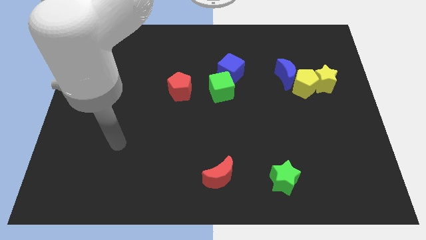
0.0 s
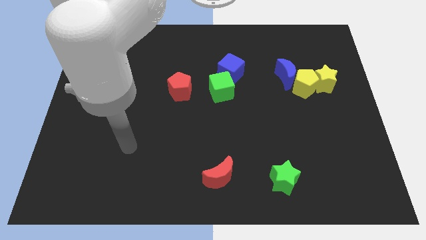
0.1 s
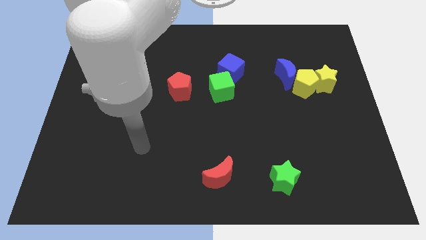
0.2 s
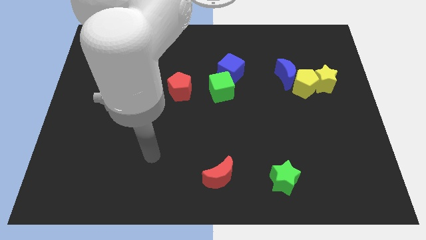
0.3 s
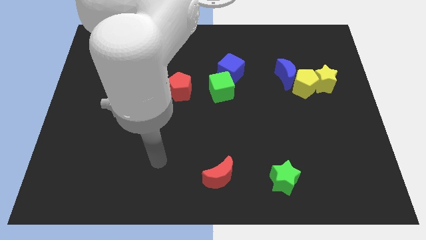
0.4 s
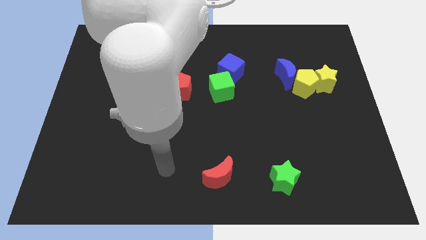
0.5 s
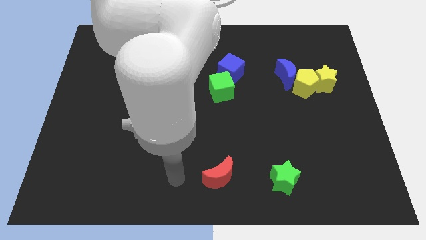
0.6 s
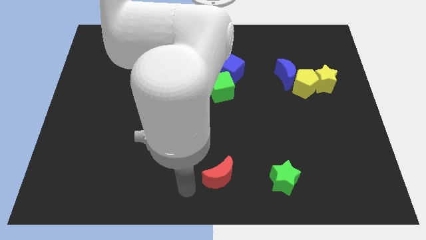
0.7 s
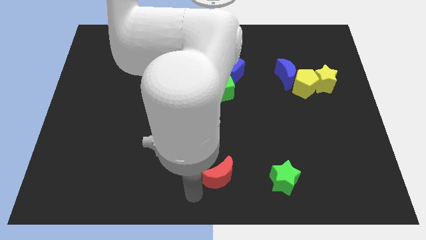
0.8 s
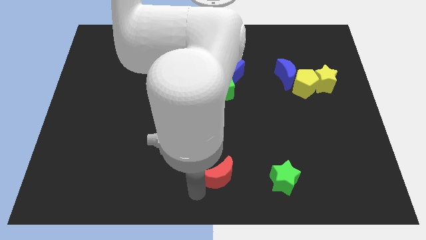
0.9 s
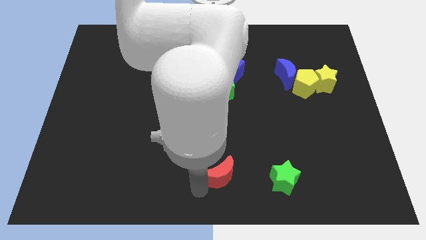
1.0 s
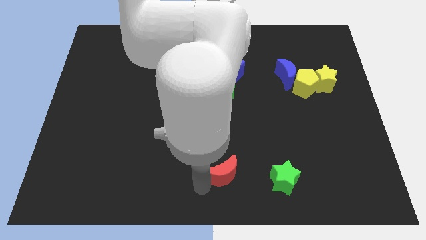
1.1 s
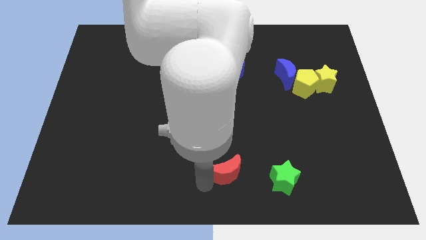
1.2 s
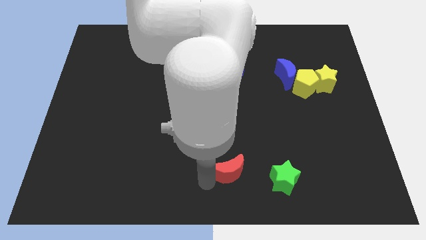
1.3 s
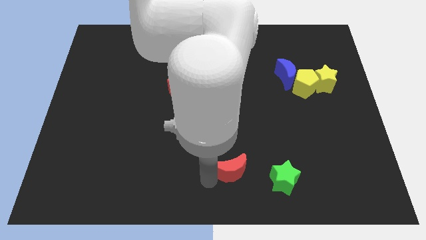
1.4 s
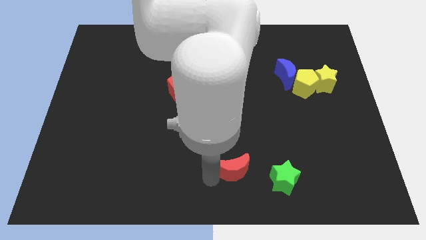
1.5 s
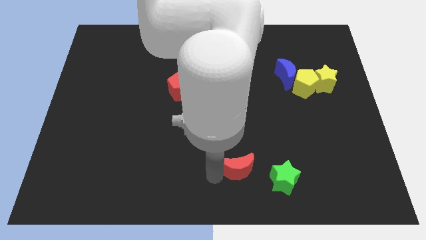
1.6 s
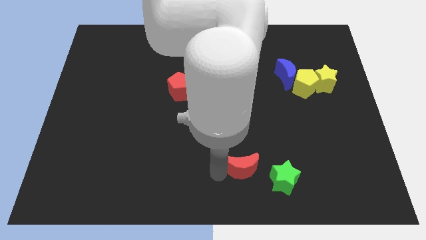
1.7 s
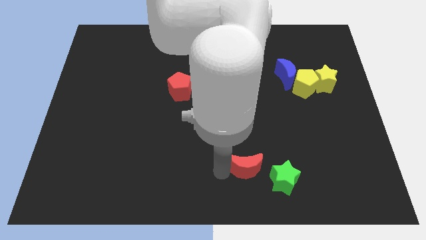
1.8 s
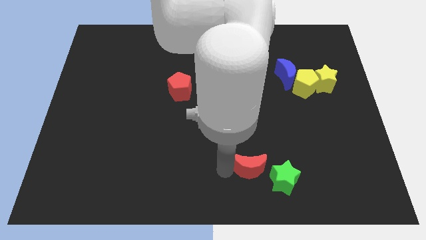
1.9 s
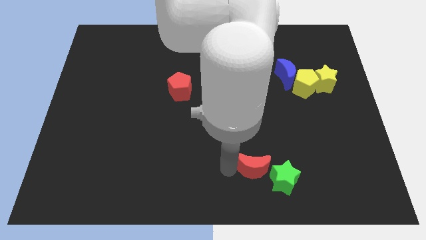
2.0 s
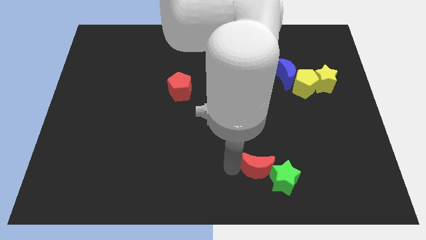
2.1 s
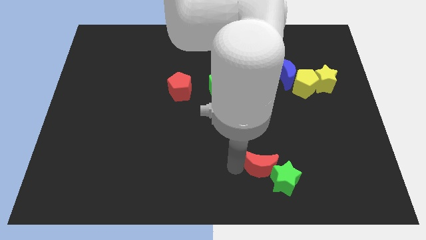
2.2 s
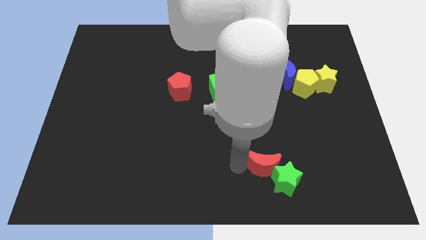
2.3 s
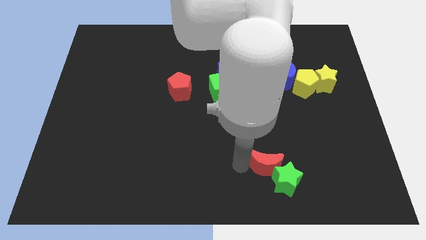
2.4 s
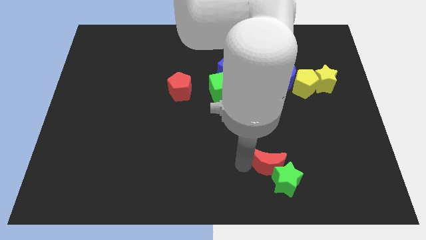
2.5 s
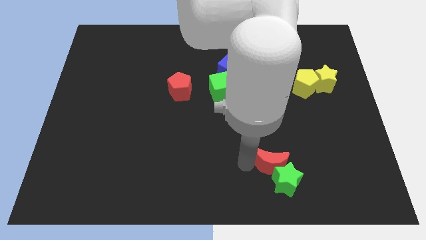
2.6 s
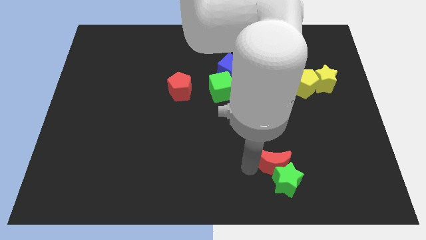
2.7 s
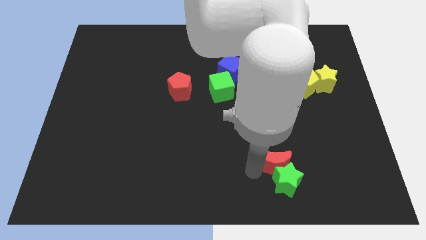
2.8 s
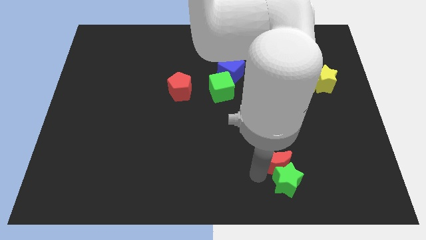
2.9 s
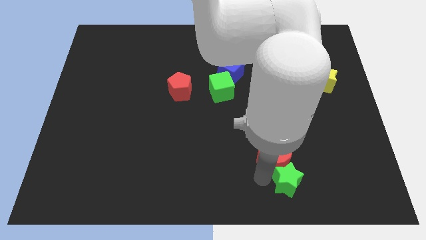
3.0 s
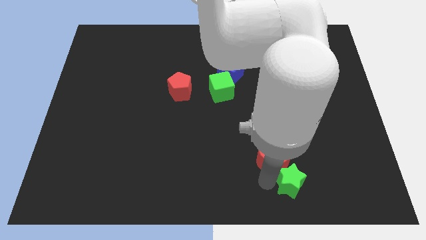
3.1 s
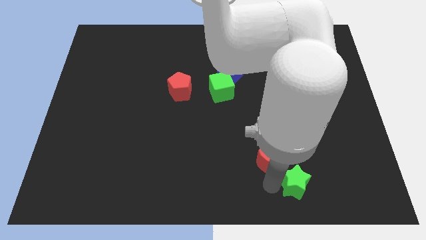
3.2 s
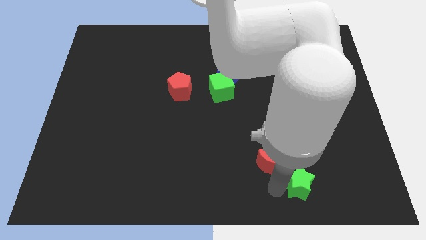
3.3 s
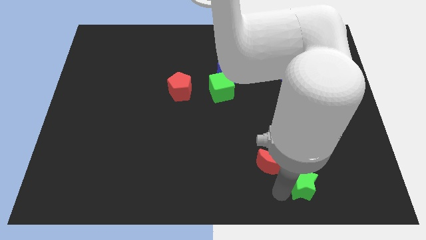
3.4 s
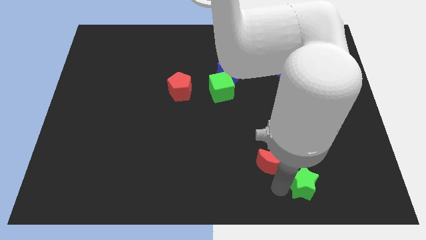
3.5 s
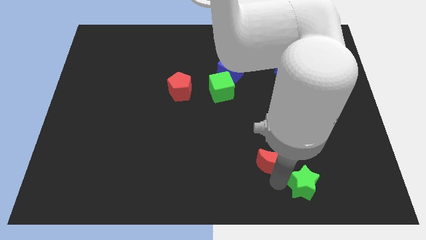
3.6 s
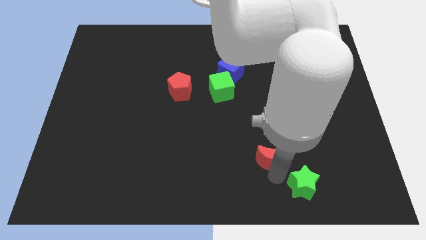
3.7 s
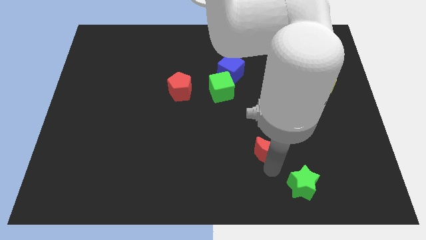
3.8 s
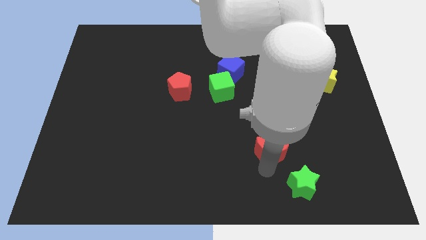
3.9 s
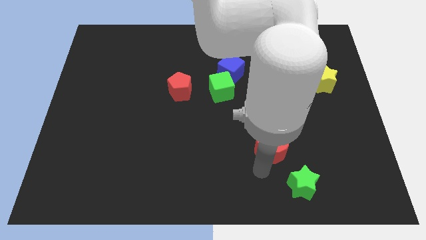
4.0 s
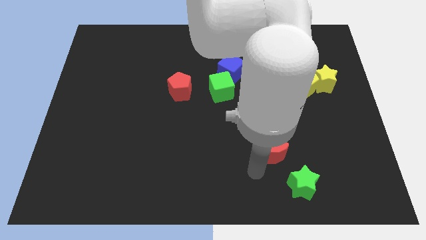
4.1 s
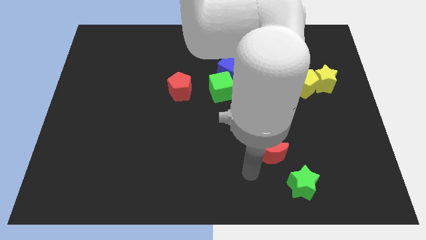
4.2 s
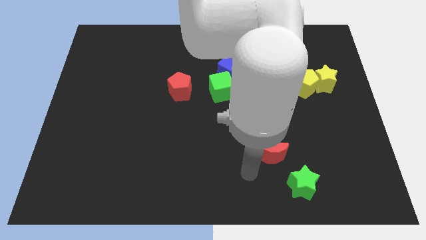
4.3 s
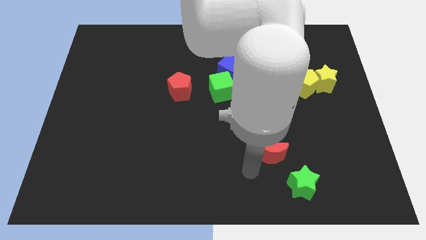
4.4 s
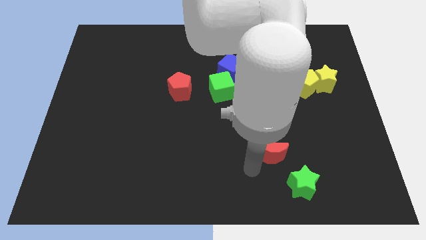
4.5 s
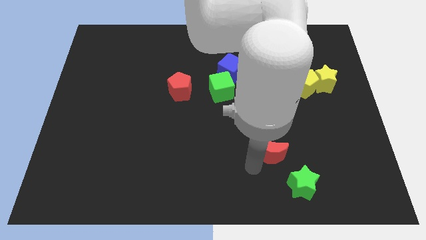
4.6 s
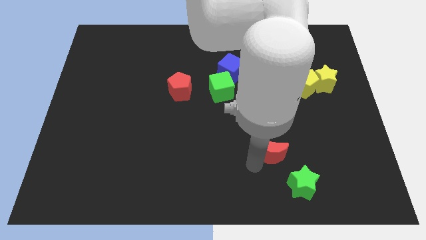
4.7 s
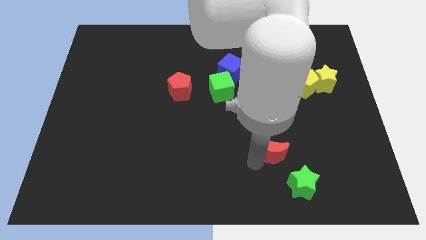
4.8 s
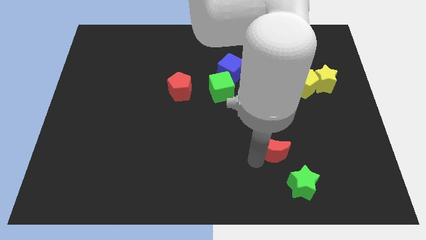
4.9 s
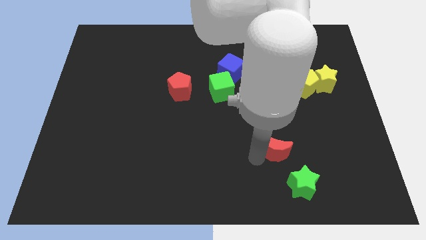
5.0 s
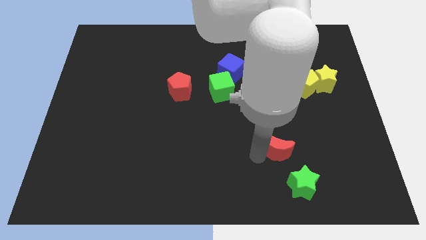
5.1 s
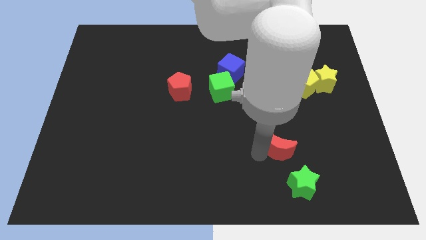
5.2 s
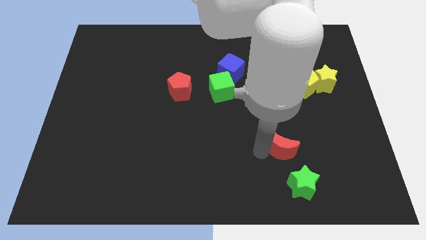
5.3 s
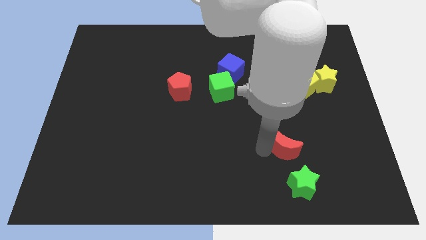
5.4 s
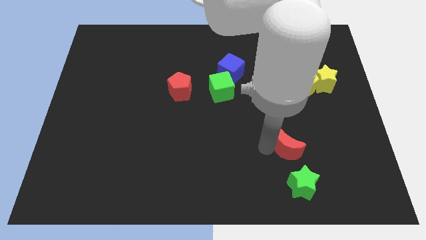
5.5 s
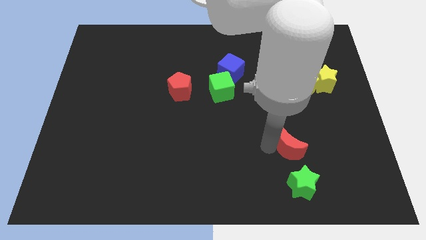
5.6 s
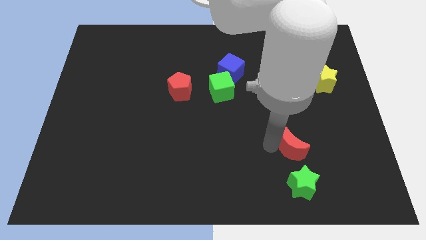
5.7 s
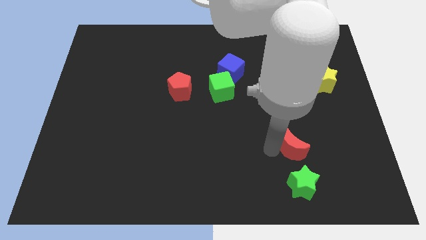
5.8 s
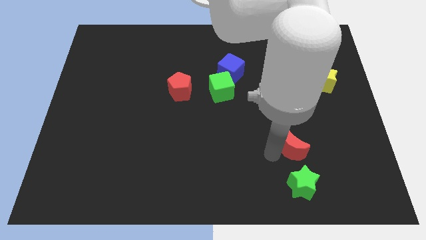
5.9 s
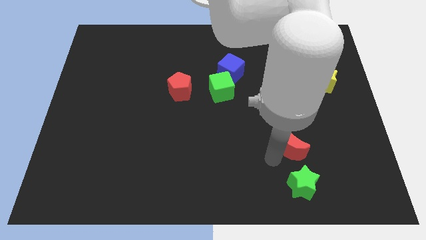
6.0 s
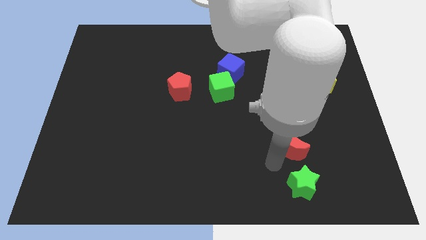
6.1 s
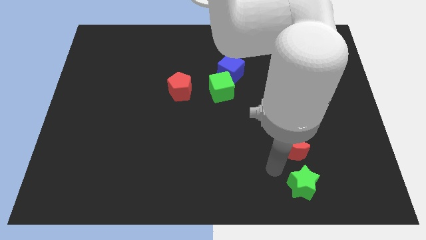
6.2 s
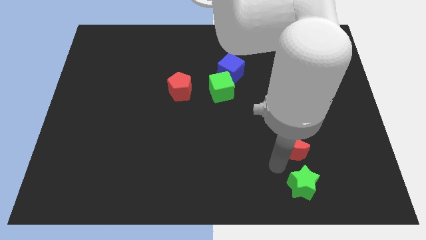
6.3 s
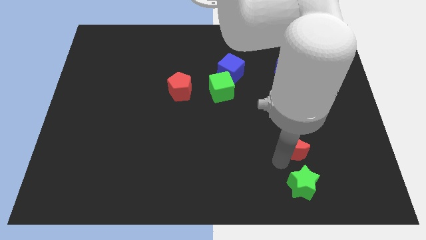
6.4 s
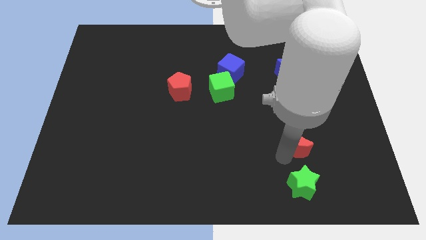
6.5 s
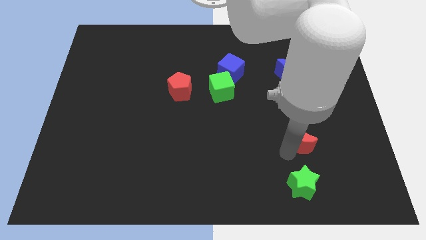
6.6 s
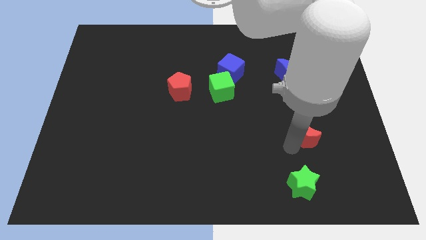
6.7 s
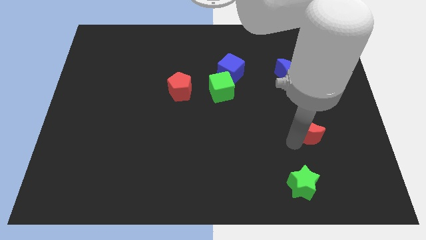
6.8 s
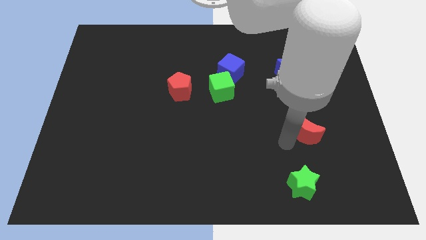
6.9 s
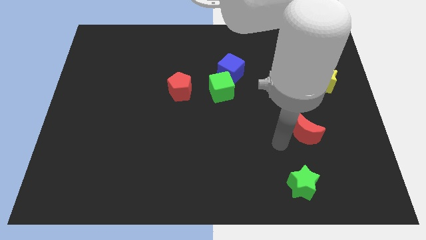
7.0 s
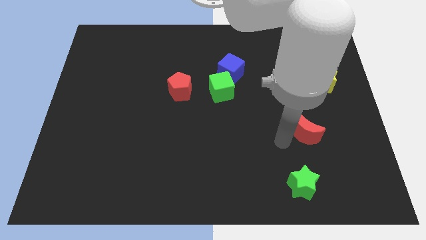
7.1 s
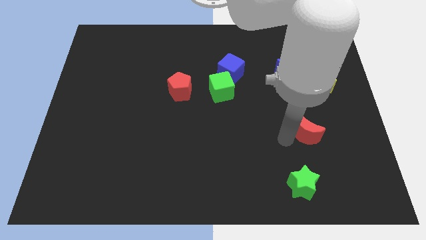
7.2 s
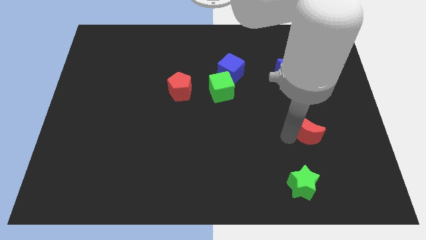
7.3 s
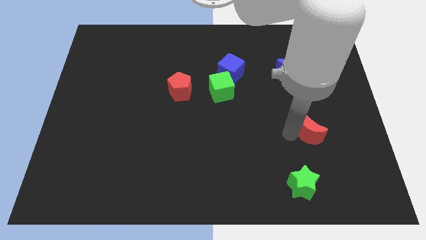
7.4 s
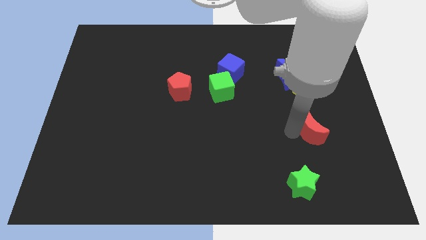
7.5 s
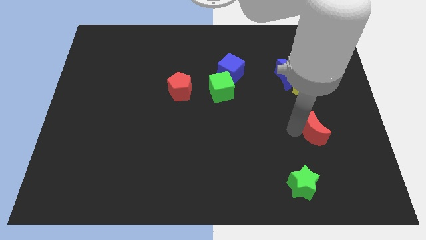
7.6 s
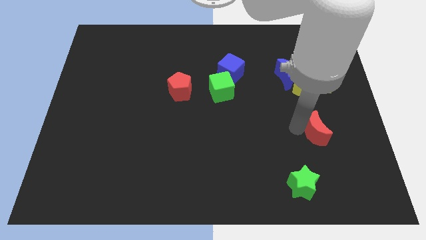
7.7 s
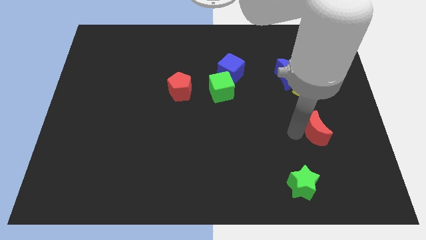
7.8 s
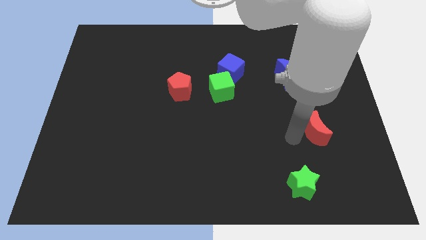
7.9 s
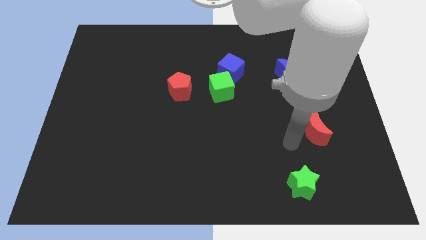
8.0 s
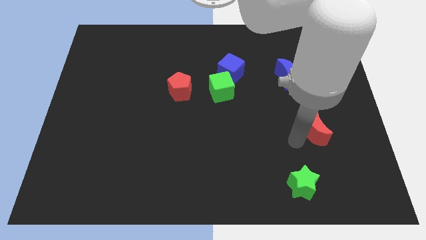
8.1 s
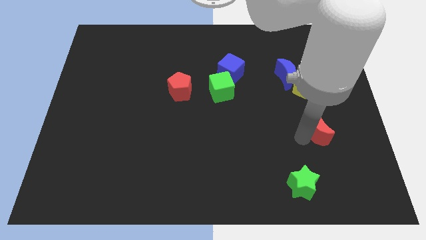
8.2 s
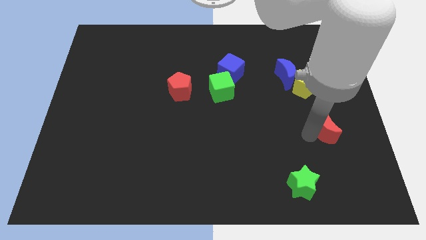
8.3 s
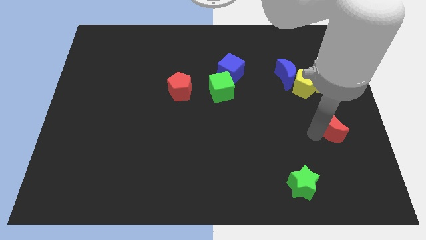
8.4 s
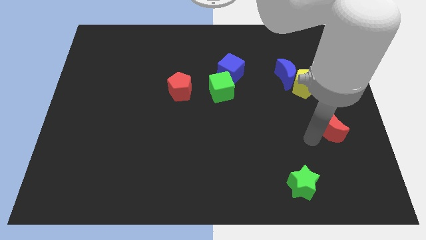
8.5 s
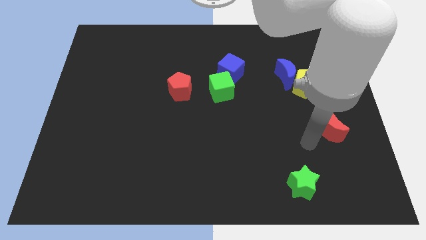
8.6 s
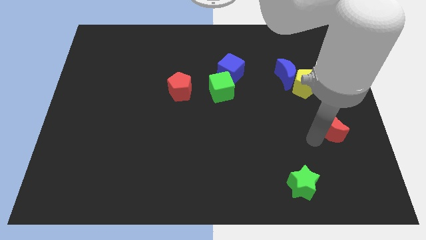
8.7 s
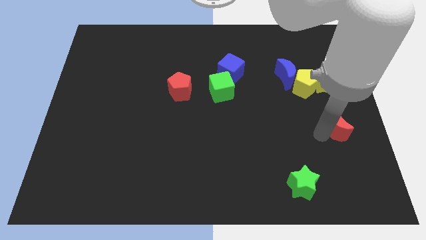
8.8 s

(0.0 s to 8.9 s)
push the red moon to the right side
